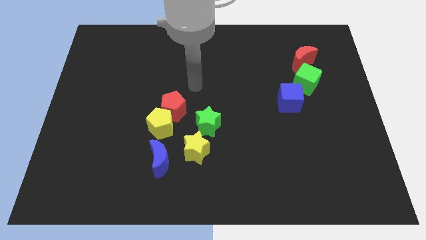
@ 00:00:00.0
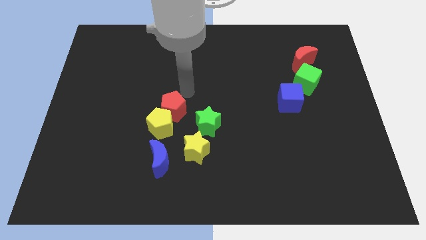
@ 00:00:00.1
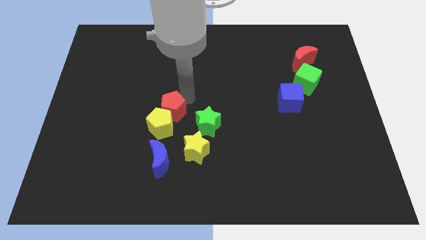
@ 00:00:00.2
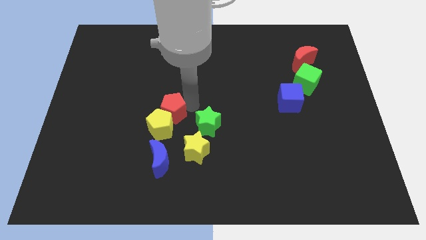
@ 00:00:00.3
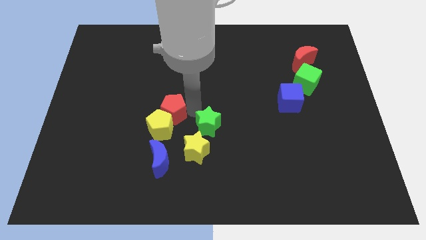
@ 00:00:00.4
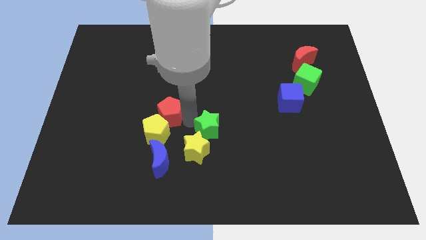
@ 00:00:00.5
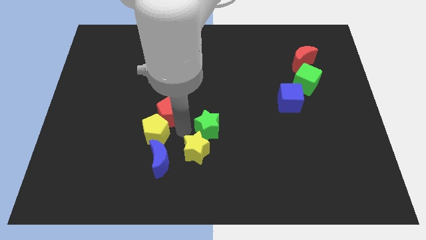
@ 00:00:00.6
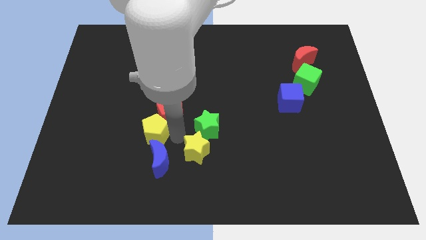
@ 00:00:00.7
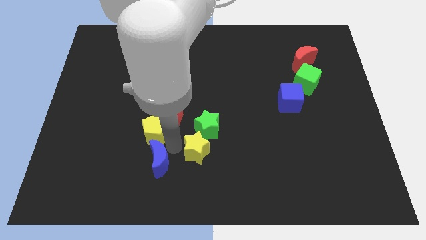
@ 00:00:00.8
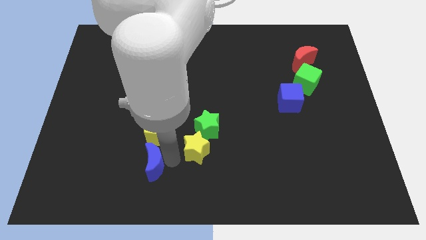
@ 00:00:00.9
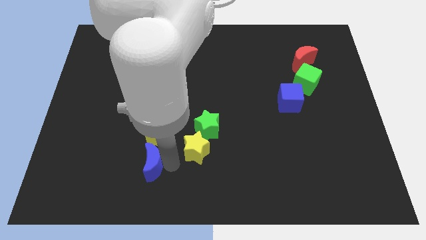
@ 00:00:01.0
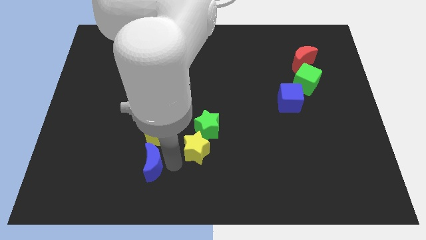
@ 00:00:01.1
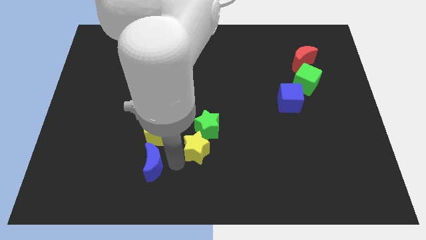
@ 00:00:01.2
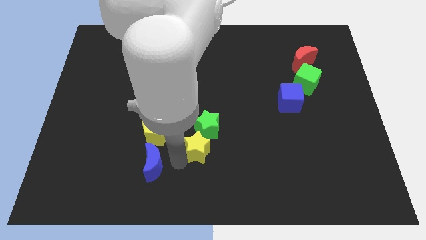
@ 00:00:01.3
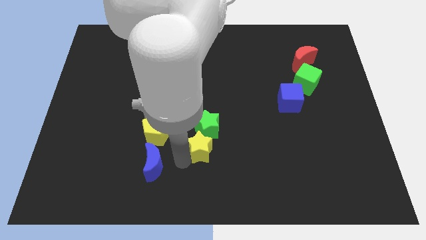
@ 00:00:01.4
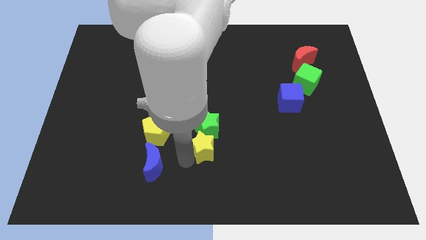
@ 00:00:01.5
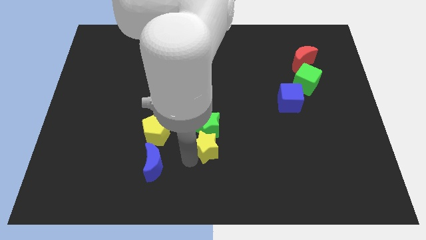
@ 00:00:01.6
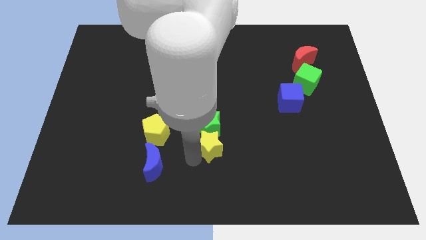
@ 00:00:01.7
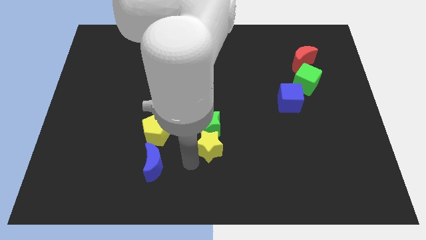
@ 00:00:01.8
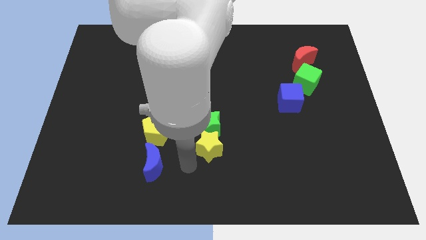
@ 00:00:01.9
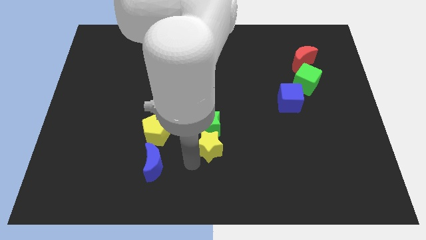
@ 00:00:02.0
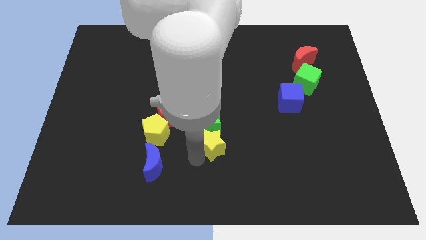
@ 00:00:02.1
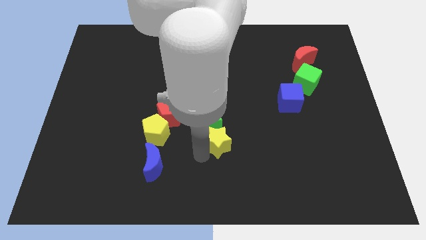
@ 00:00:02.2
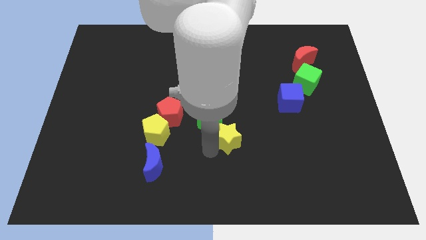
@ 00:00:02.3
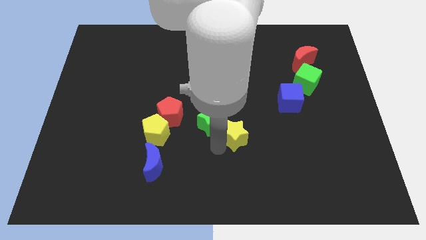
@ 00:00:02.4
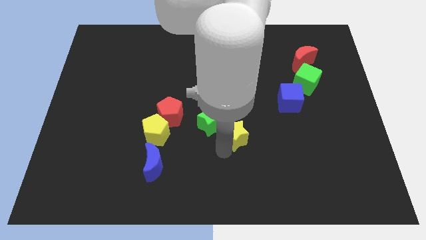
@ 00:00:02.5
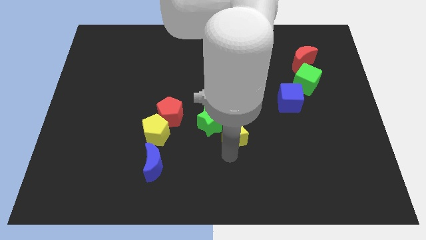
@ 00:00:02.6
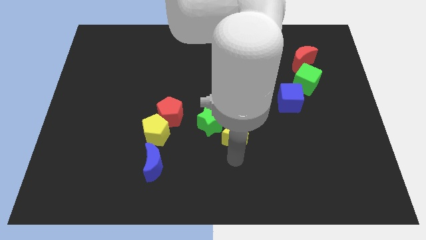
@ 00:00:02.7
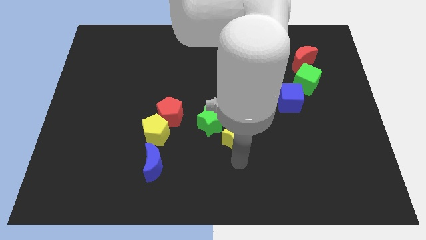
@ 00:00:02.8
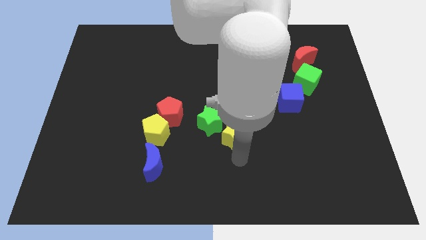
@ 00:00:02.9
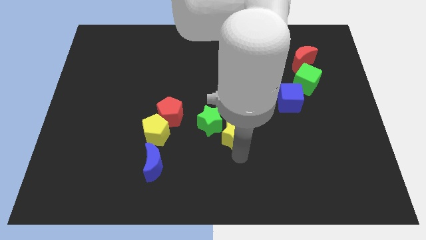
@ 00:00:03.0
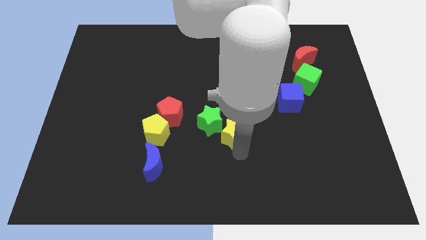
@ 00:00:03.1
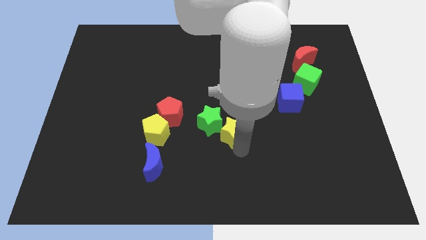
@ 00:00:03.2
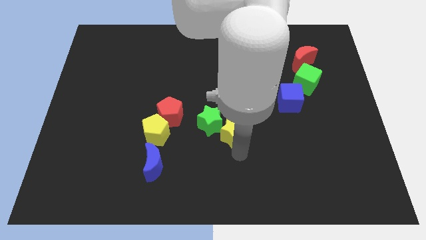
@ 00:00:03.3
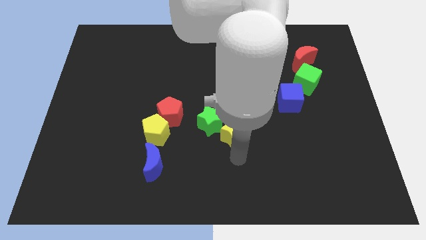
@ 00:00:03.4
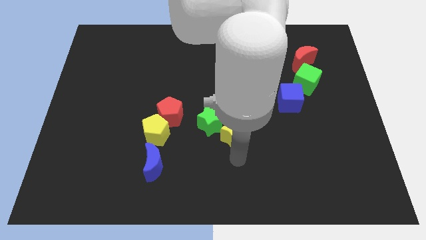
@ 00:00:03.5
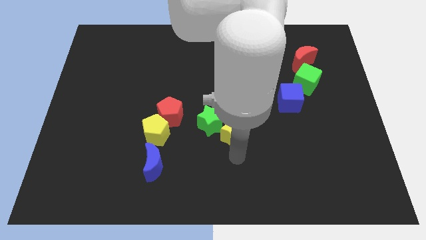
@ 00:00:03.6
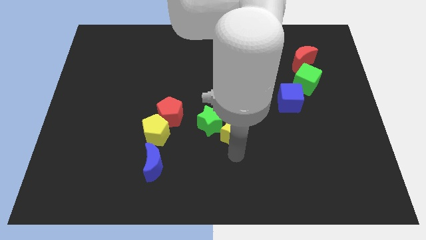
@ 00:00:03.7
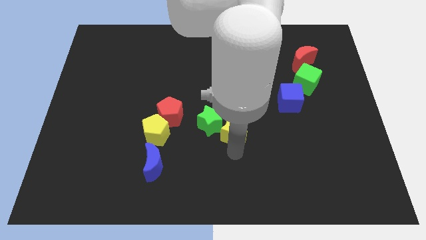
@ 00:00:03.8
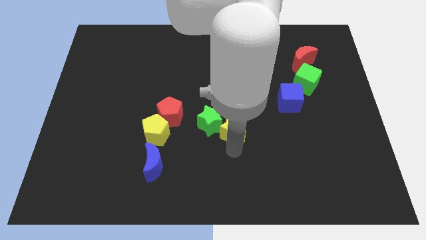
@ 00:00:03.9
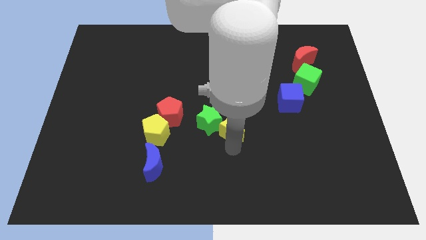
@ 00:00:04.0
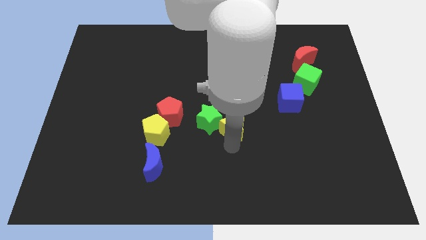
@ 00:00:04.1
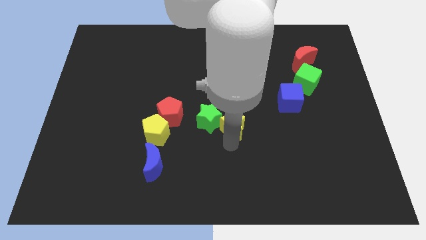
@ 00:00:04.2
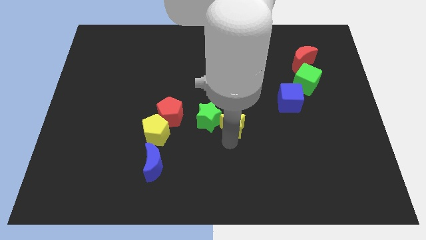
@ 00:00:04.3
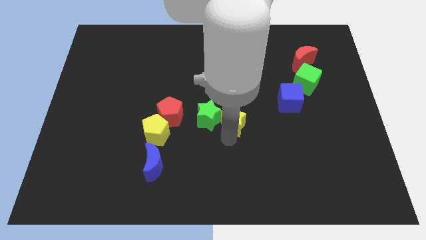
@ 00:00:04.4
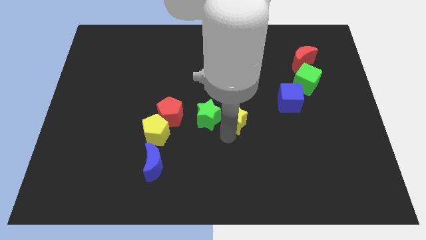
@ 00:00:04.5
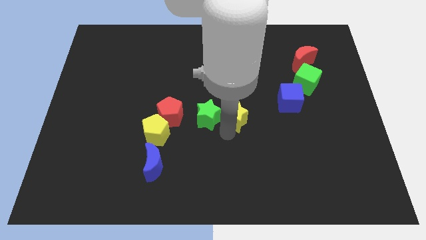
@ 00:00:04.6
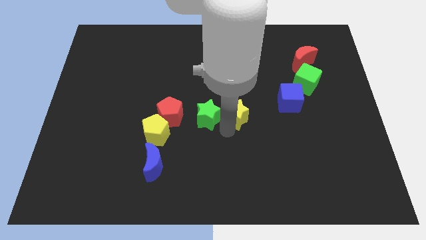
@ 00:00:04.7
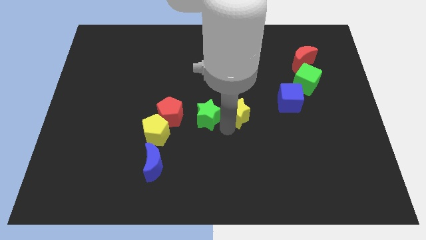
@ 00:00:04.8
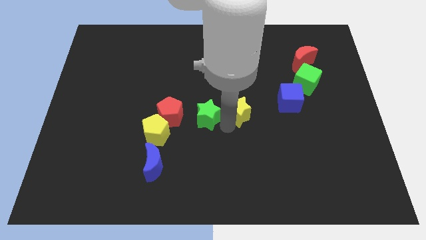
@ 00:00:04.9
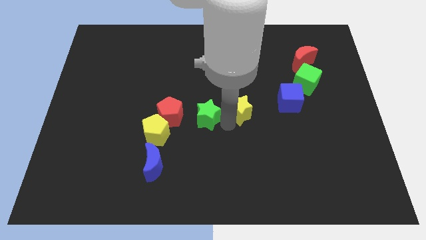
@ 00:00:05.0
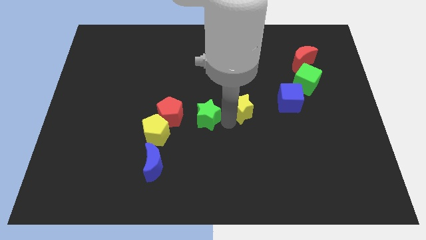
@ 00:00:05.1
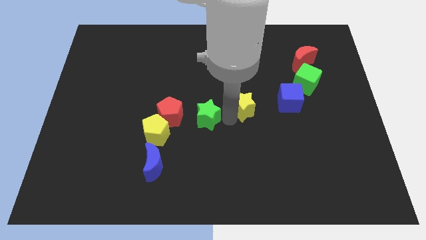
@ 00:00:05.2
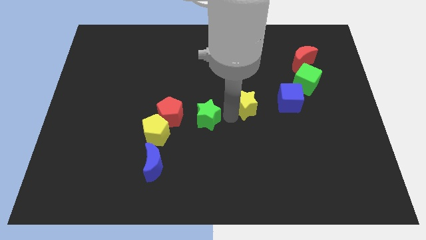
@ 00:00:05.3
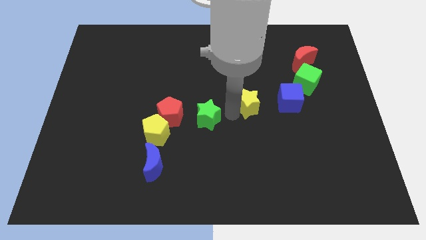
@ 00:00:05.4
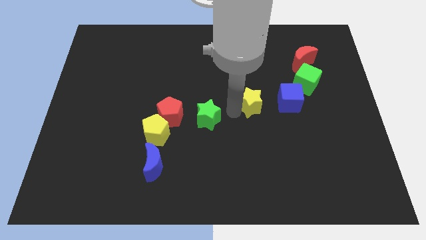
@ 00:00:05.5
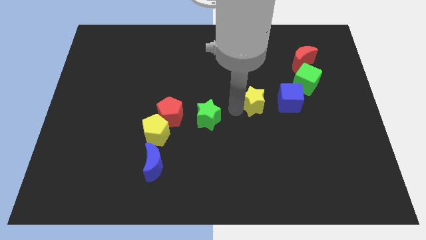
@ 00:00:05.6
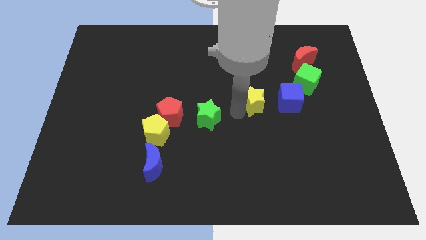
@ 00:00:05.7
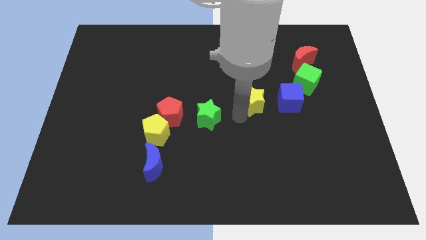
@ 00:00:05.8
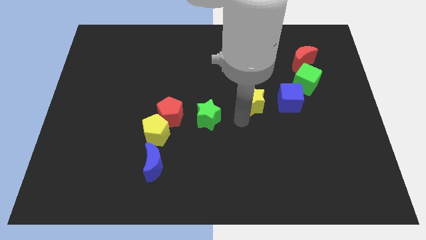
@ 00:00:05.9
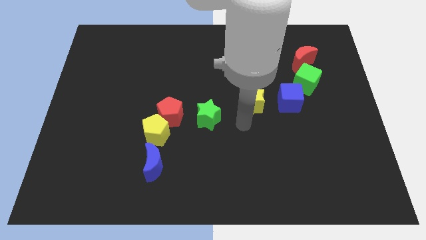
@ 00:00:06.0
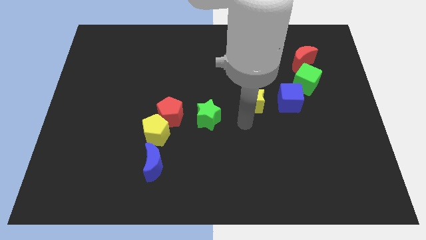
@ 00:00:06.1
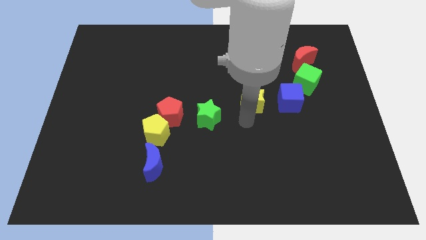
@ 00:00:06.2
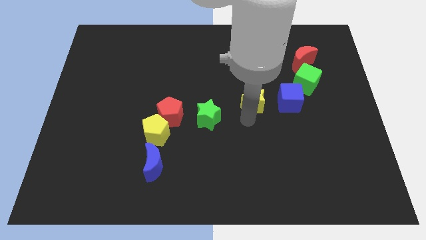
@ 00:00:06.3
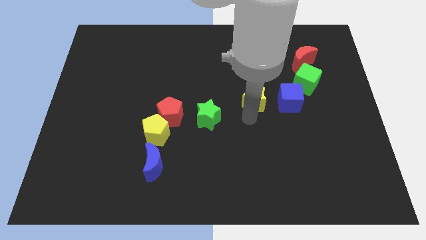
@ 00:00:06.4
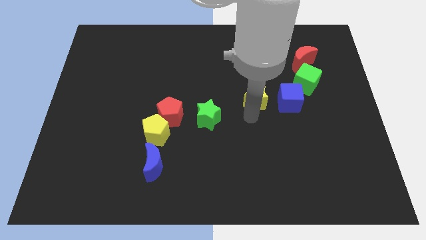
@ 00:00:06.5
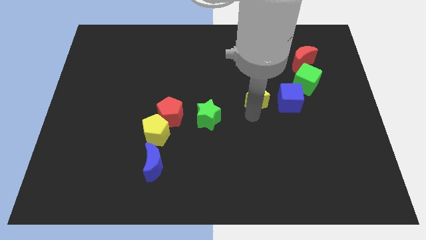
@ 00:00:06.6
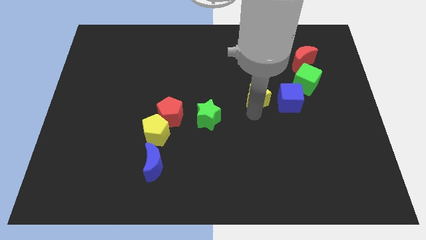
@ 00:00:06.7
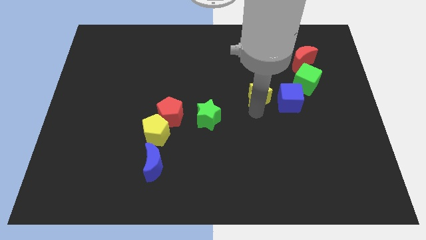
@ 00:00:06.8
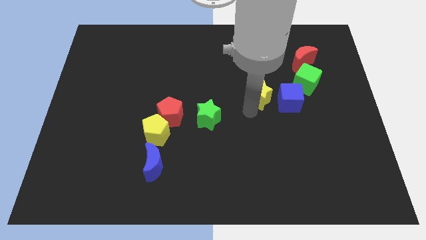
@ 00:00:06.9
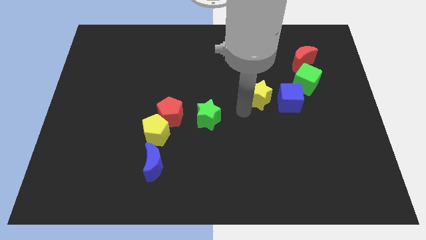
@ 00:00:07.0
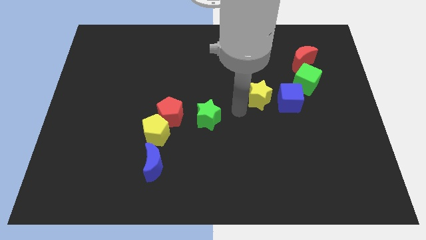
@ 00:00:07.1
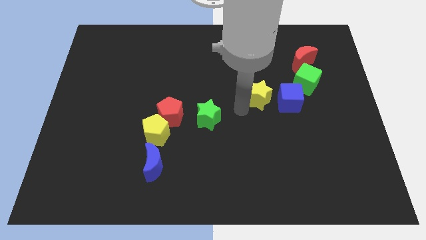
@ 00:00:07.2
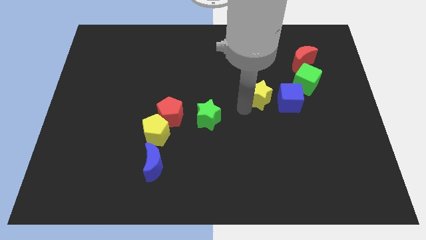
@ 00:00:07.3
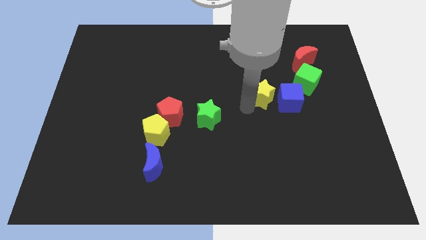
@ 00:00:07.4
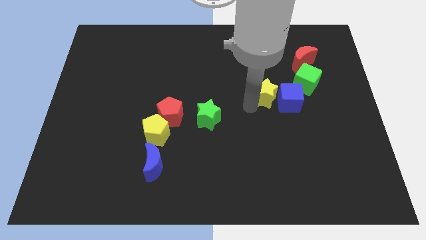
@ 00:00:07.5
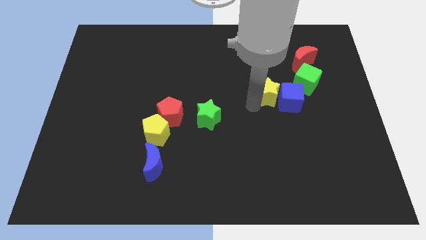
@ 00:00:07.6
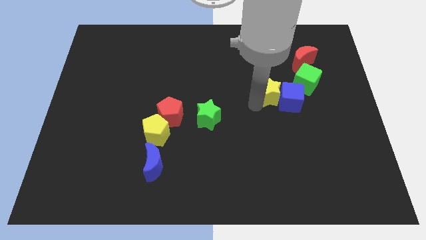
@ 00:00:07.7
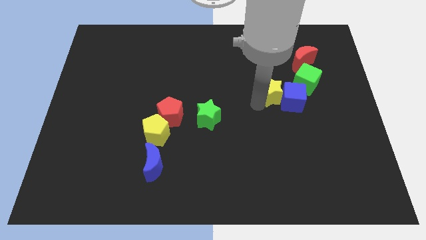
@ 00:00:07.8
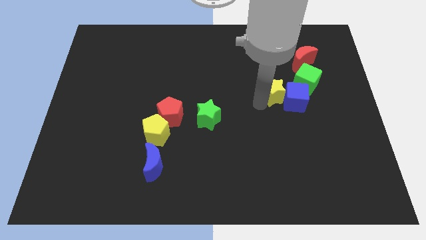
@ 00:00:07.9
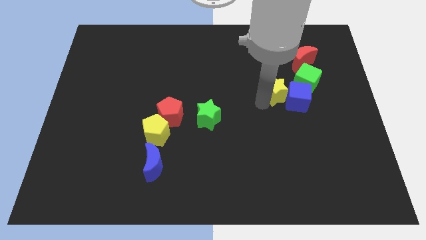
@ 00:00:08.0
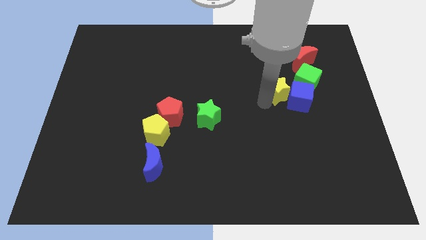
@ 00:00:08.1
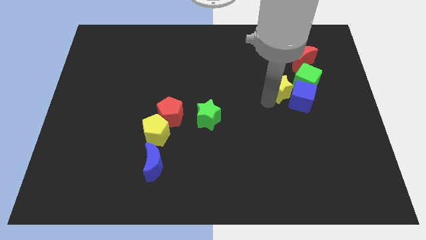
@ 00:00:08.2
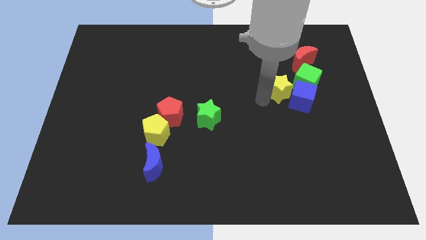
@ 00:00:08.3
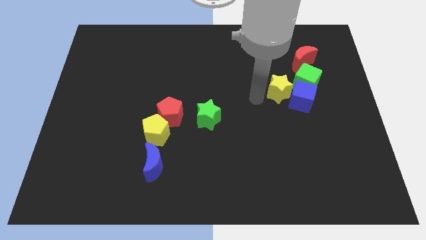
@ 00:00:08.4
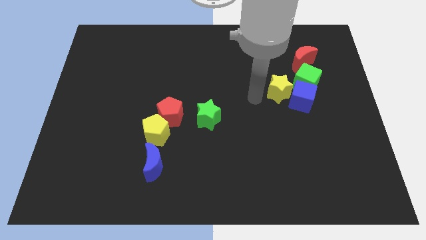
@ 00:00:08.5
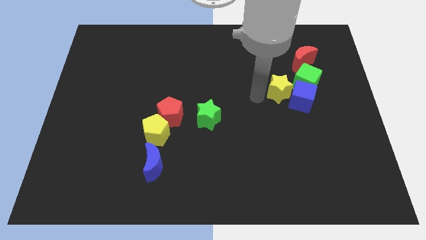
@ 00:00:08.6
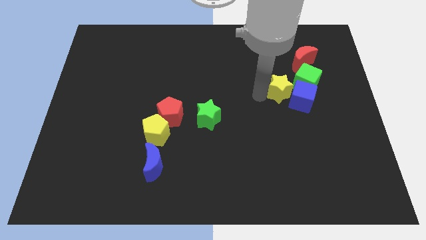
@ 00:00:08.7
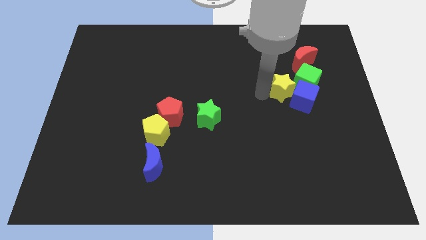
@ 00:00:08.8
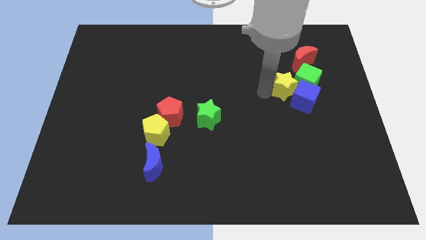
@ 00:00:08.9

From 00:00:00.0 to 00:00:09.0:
push the yellow star close to the green cube
